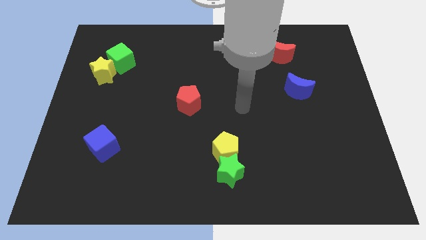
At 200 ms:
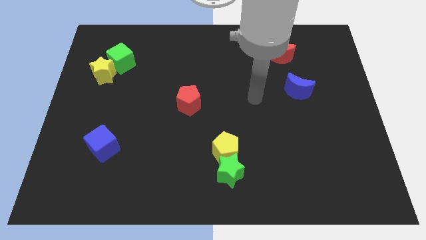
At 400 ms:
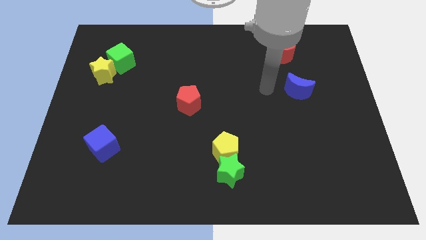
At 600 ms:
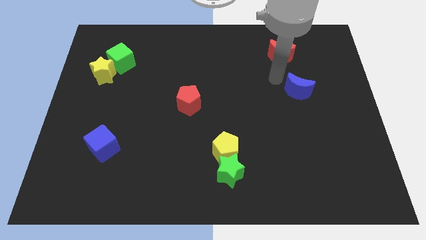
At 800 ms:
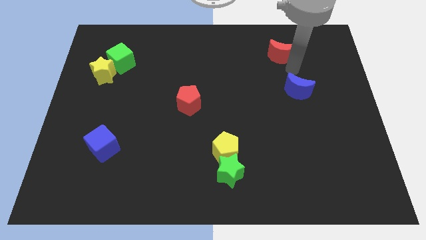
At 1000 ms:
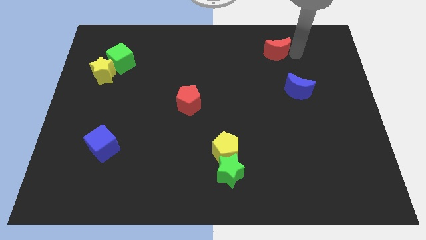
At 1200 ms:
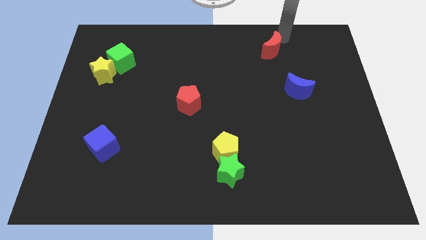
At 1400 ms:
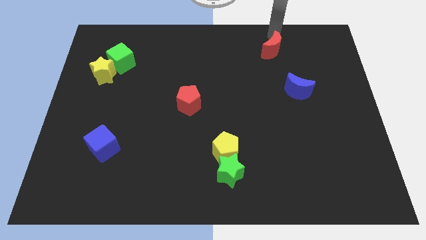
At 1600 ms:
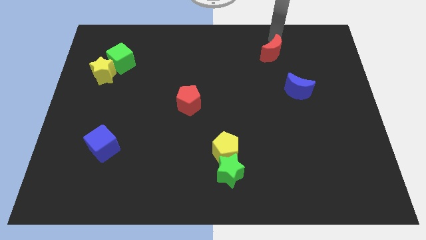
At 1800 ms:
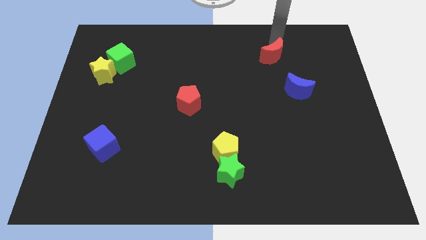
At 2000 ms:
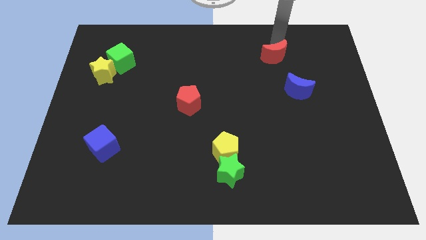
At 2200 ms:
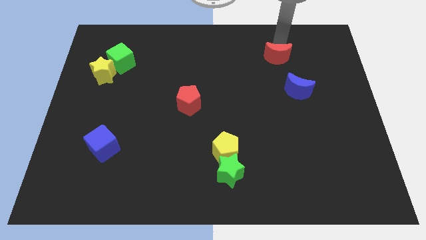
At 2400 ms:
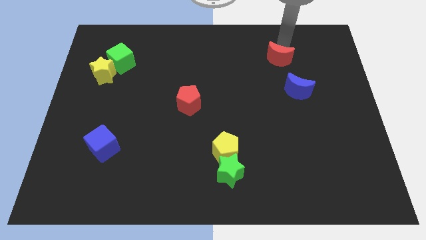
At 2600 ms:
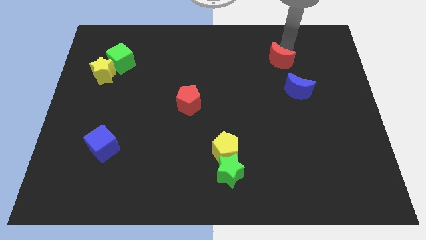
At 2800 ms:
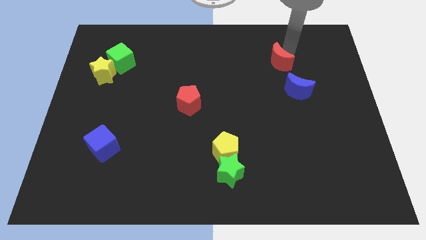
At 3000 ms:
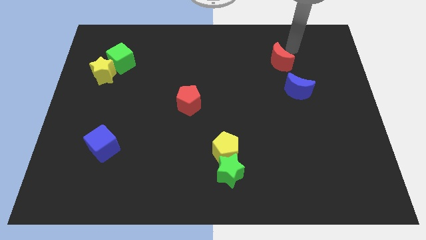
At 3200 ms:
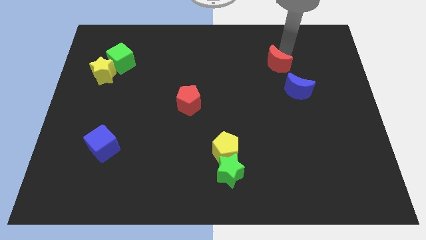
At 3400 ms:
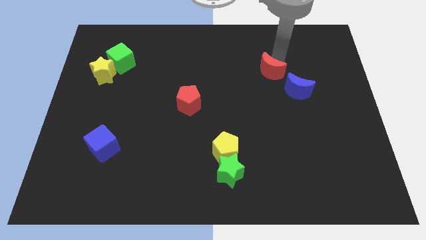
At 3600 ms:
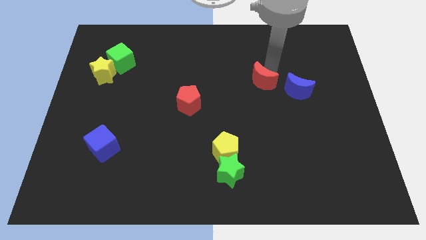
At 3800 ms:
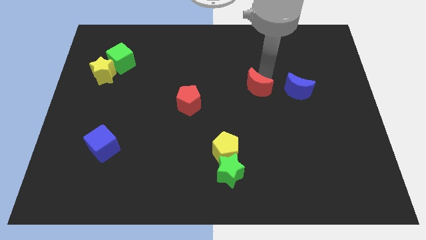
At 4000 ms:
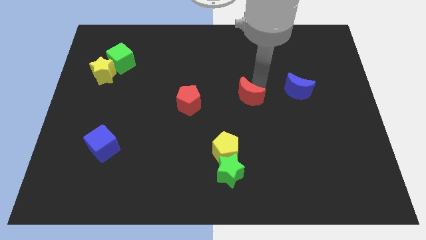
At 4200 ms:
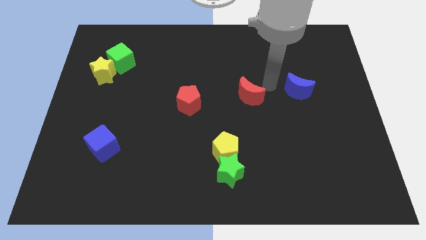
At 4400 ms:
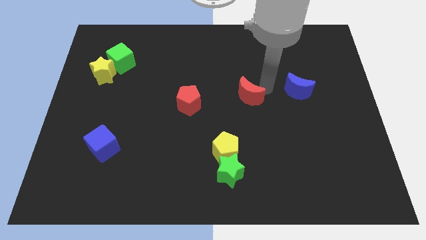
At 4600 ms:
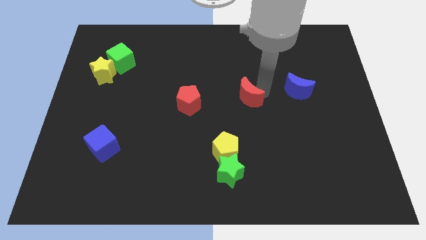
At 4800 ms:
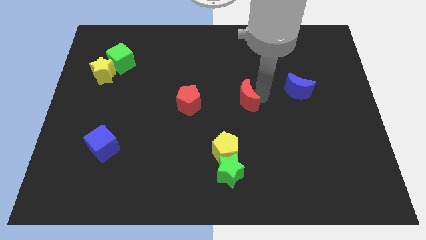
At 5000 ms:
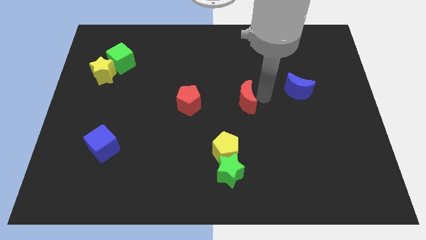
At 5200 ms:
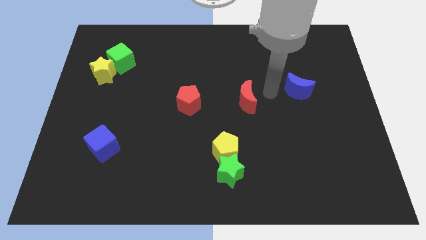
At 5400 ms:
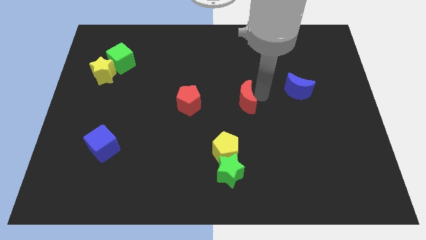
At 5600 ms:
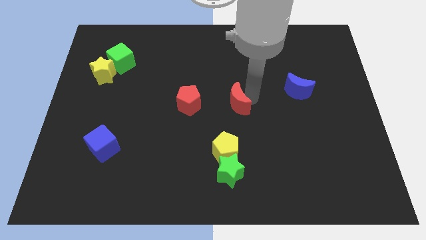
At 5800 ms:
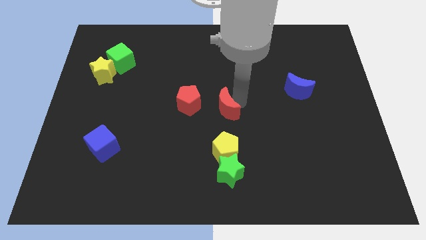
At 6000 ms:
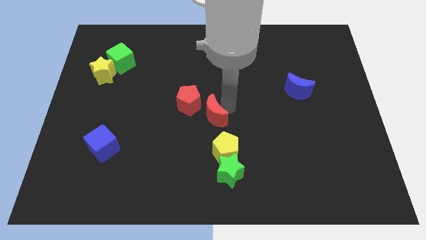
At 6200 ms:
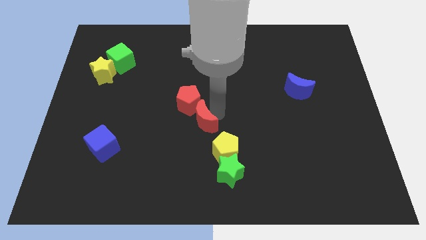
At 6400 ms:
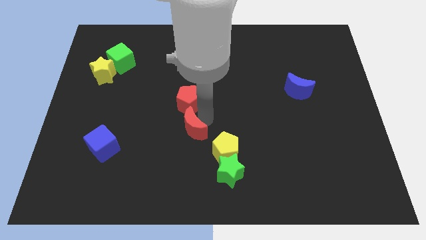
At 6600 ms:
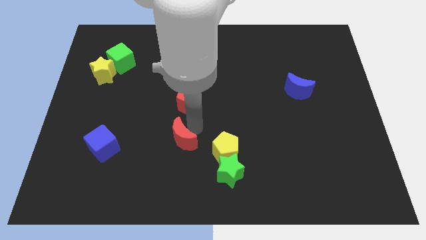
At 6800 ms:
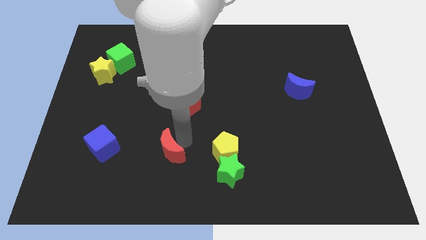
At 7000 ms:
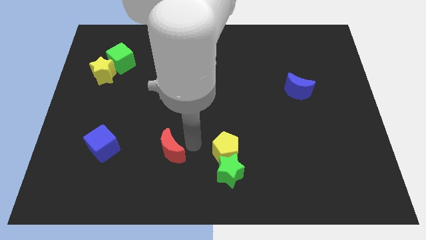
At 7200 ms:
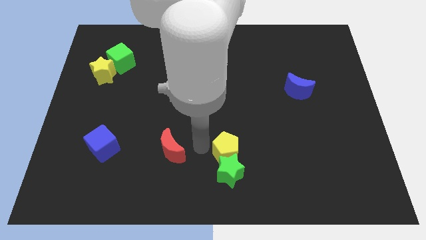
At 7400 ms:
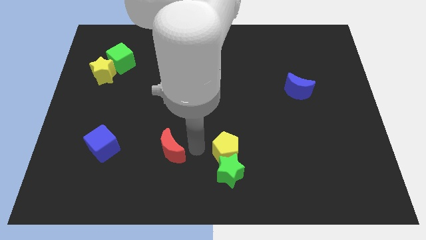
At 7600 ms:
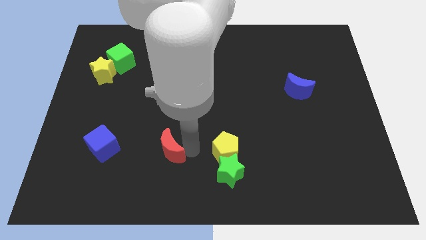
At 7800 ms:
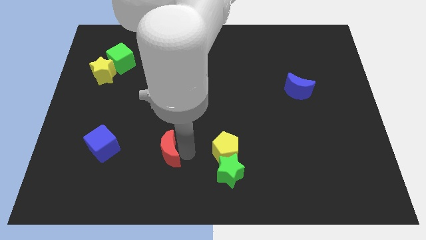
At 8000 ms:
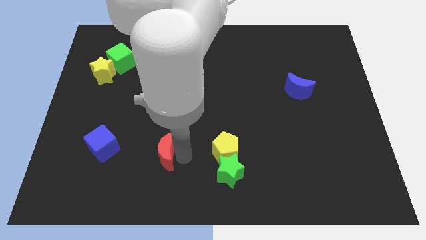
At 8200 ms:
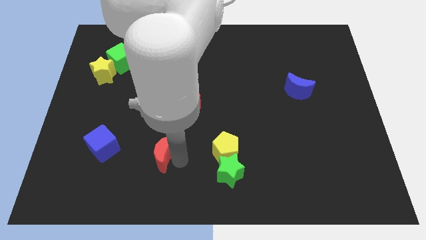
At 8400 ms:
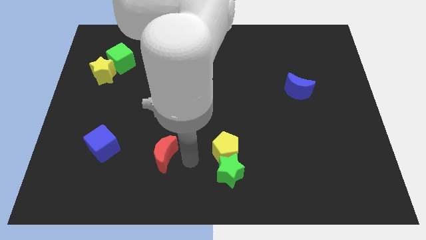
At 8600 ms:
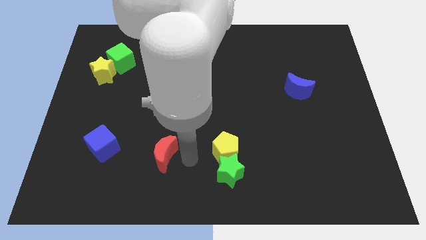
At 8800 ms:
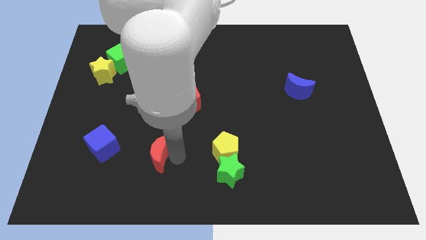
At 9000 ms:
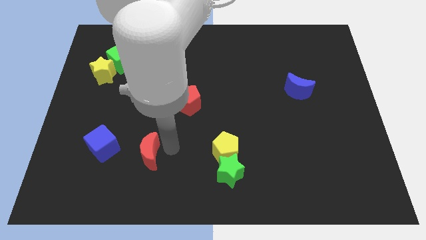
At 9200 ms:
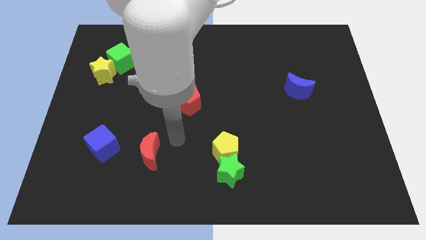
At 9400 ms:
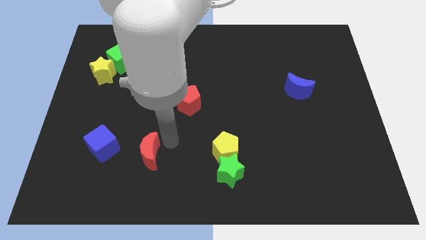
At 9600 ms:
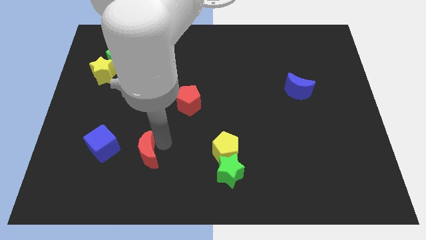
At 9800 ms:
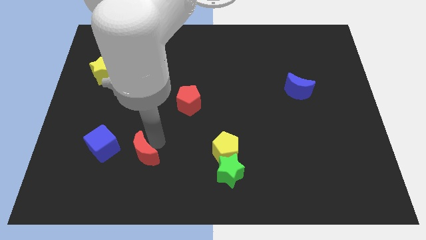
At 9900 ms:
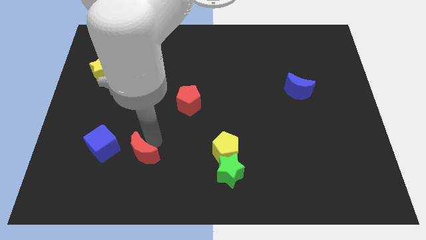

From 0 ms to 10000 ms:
slide the red moon to the bottom right side of the blue cube

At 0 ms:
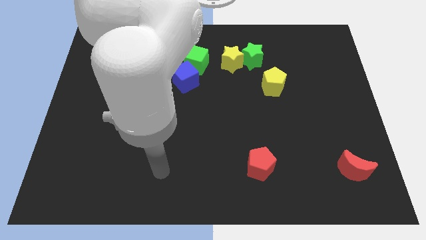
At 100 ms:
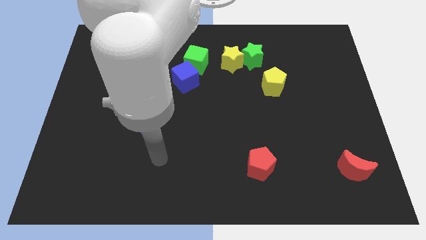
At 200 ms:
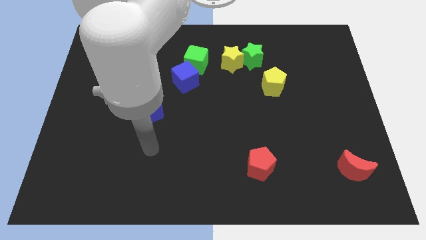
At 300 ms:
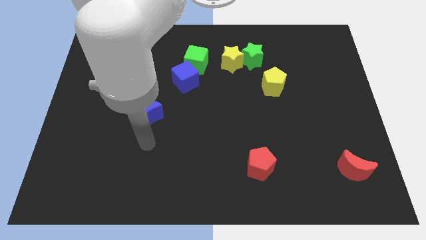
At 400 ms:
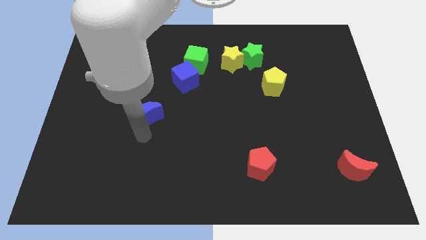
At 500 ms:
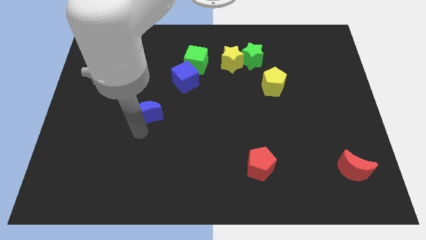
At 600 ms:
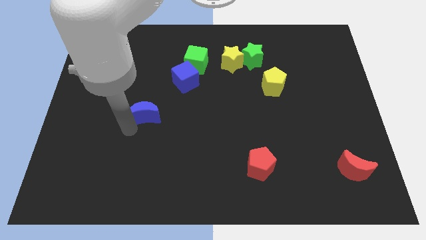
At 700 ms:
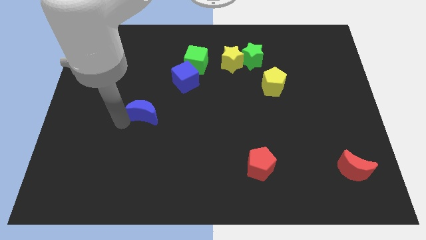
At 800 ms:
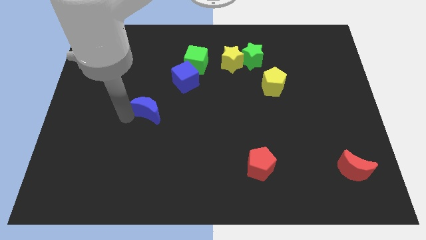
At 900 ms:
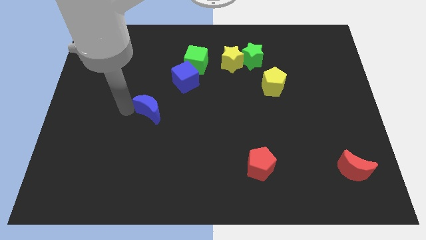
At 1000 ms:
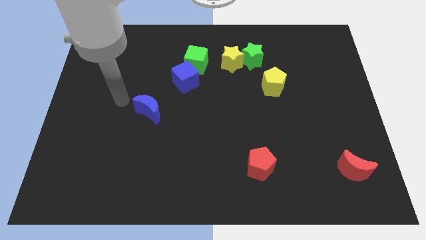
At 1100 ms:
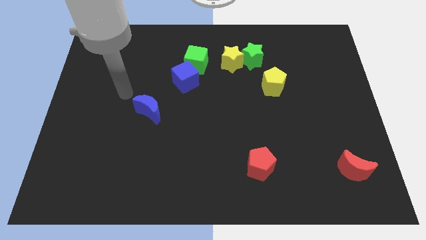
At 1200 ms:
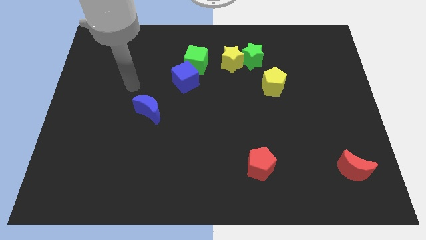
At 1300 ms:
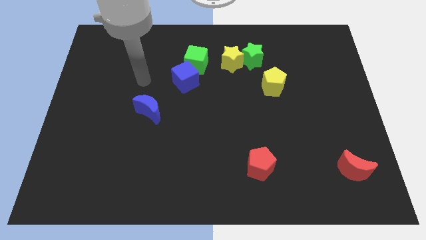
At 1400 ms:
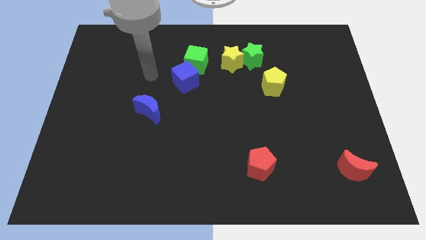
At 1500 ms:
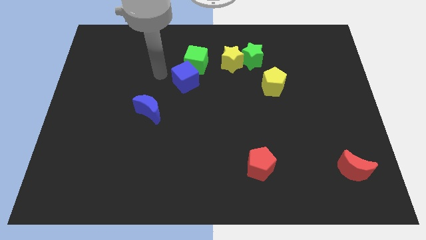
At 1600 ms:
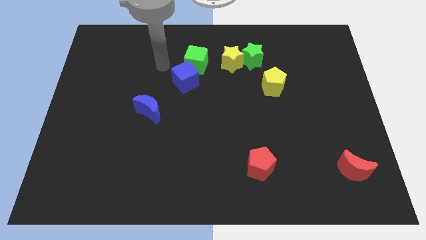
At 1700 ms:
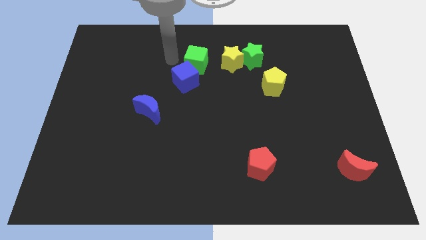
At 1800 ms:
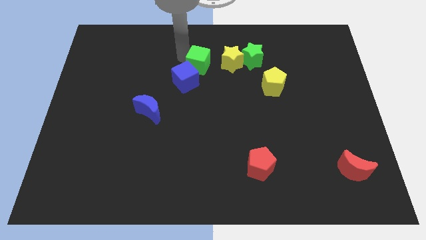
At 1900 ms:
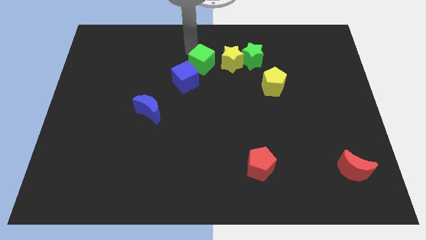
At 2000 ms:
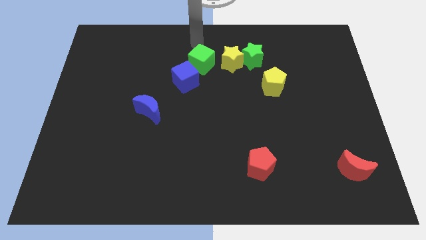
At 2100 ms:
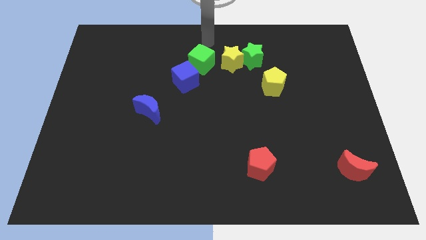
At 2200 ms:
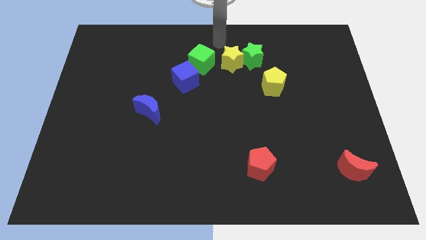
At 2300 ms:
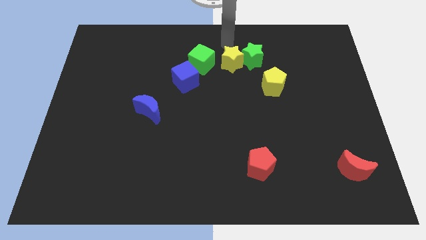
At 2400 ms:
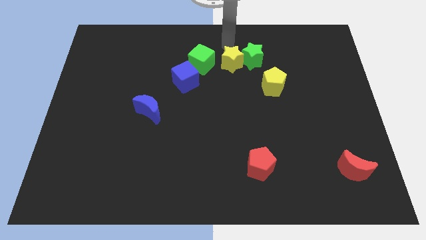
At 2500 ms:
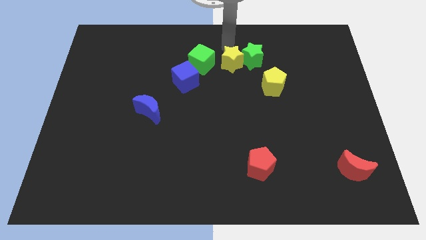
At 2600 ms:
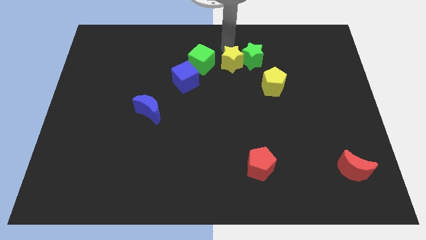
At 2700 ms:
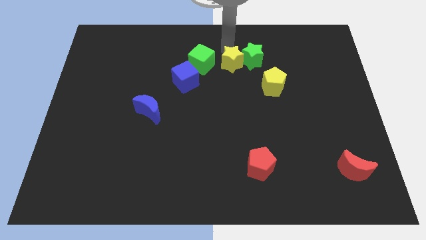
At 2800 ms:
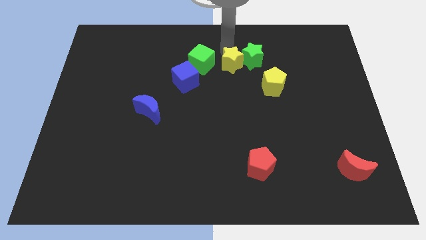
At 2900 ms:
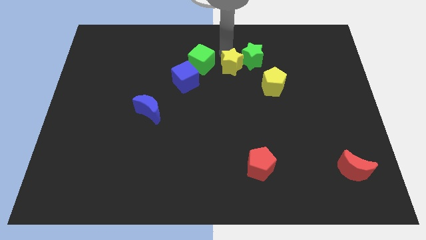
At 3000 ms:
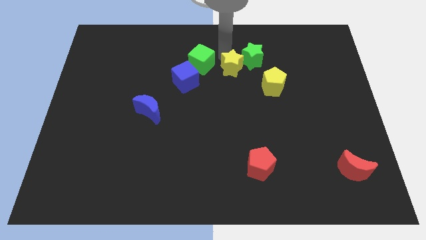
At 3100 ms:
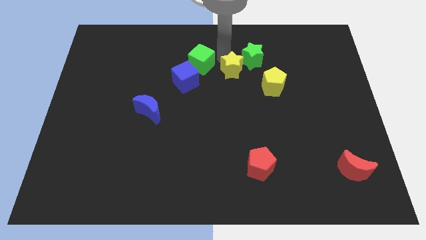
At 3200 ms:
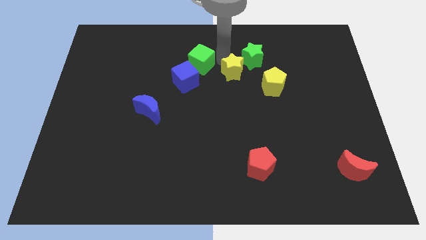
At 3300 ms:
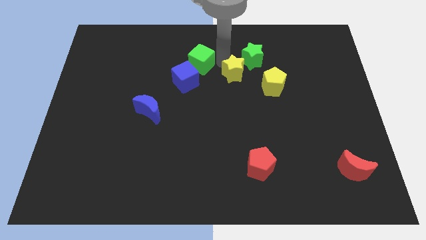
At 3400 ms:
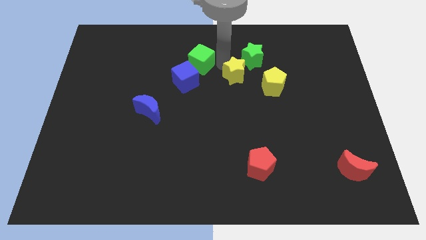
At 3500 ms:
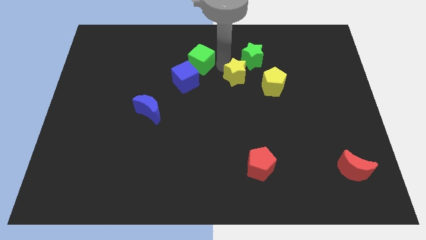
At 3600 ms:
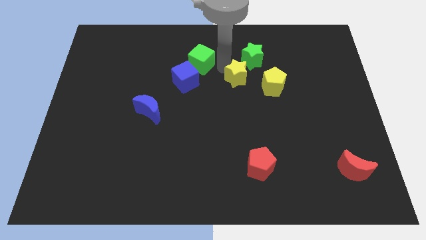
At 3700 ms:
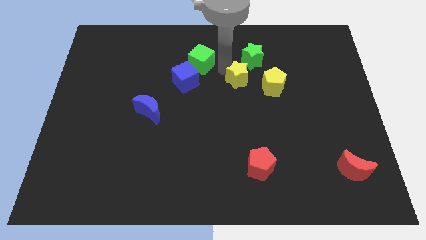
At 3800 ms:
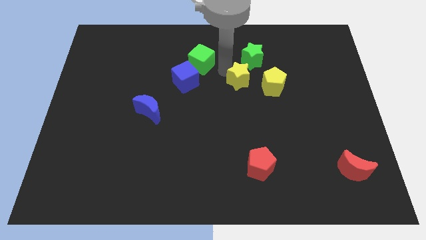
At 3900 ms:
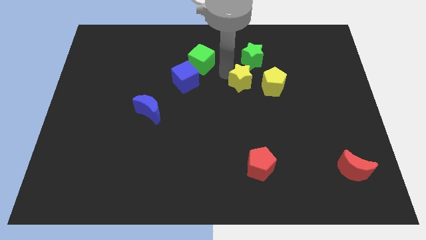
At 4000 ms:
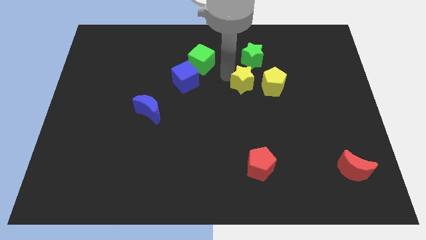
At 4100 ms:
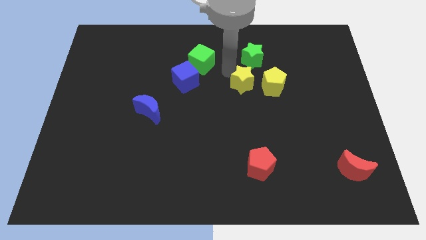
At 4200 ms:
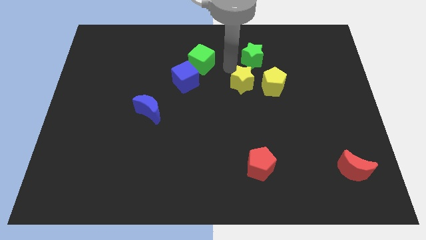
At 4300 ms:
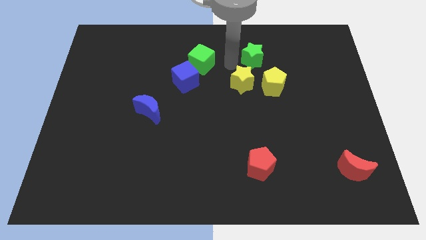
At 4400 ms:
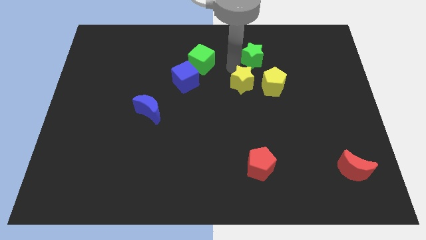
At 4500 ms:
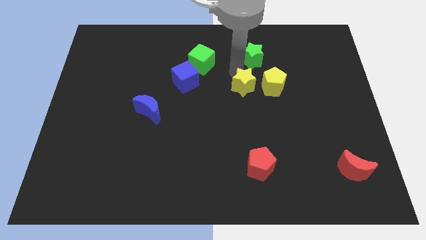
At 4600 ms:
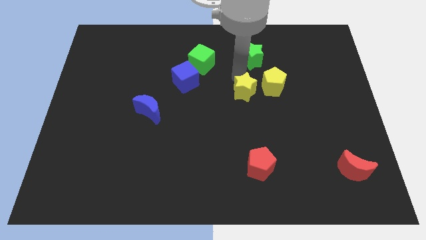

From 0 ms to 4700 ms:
move the yellow star to the bottom left of the yellow pentagon
